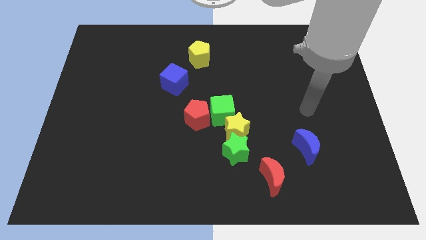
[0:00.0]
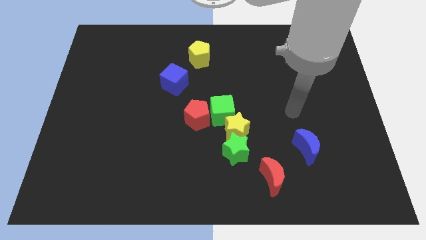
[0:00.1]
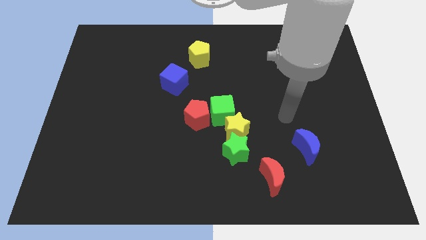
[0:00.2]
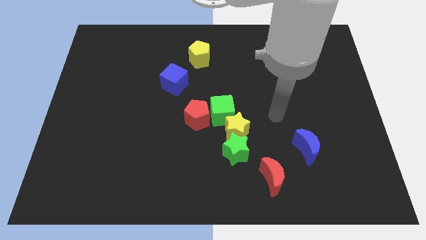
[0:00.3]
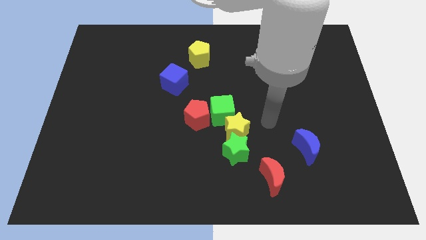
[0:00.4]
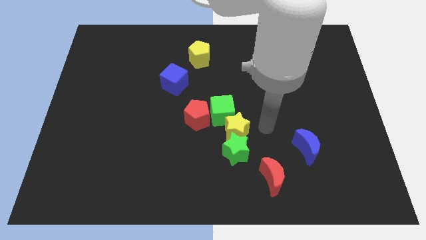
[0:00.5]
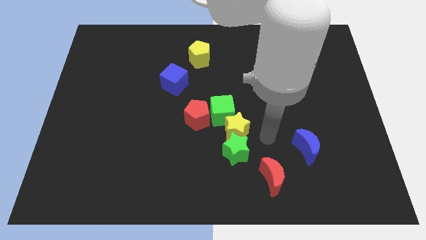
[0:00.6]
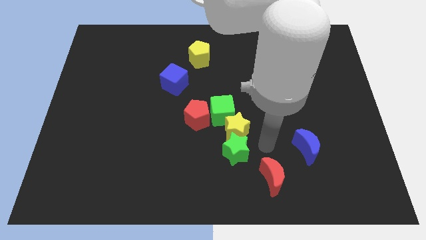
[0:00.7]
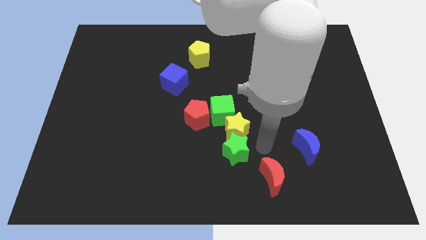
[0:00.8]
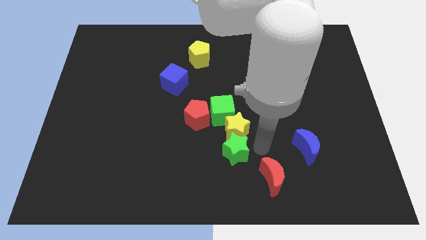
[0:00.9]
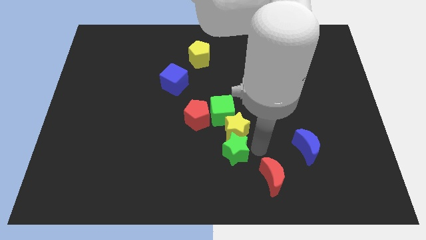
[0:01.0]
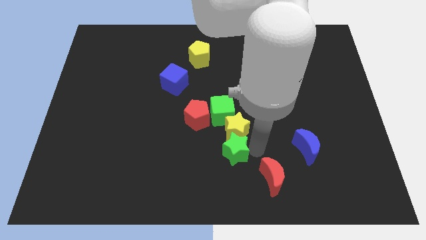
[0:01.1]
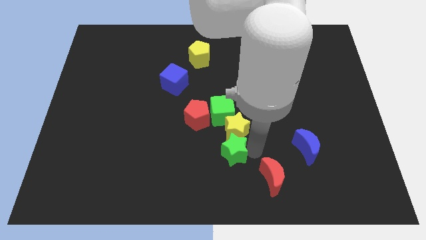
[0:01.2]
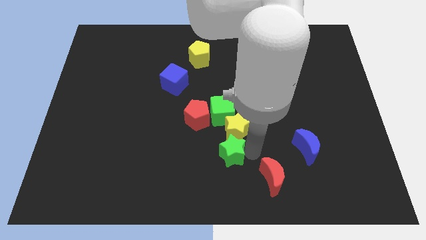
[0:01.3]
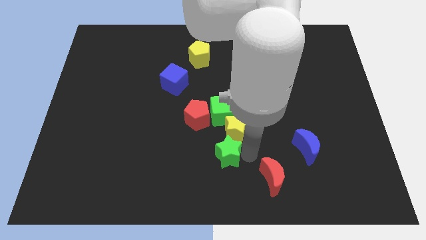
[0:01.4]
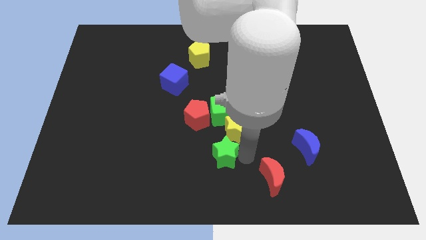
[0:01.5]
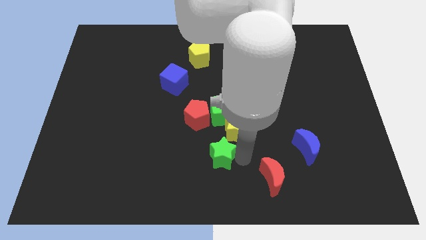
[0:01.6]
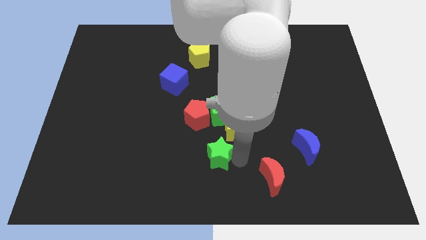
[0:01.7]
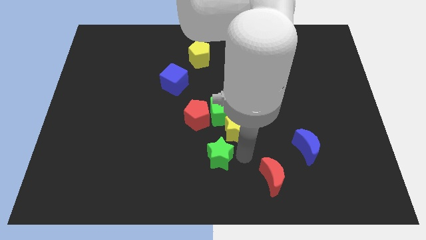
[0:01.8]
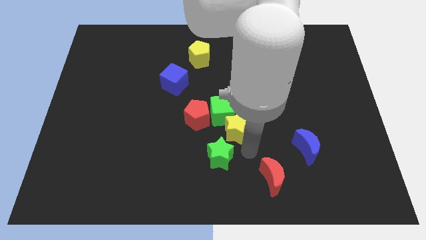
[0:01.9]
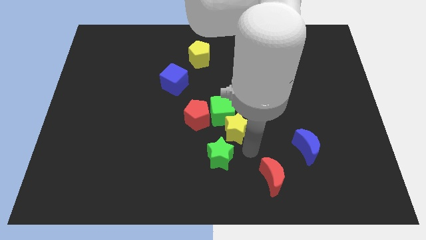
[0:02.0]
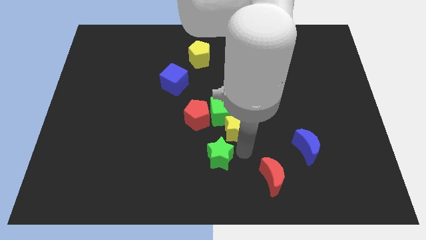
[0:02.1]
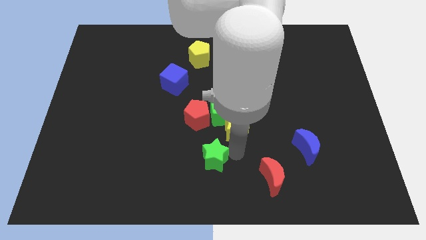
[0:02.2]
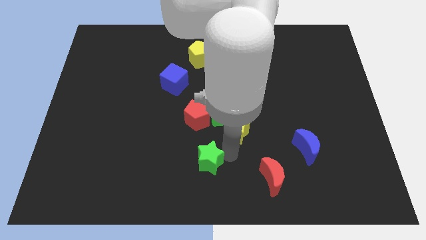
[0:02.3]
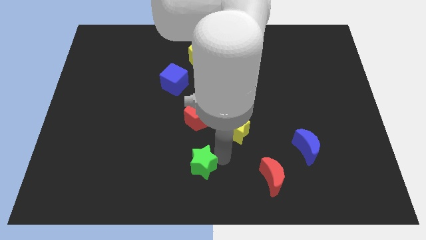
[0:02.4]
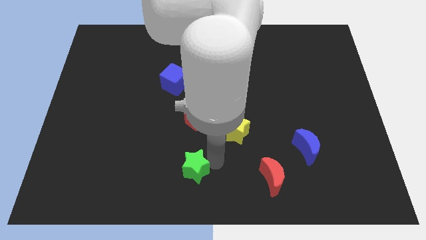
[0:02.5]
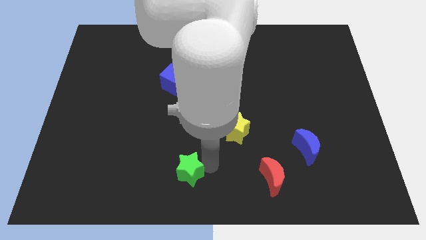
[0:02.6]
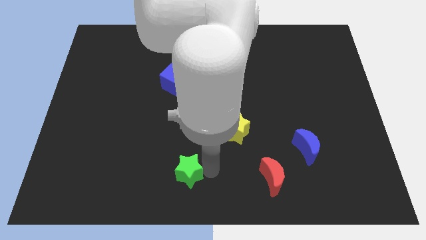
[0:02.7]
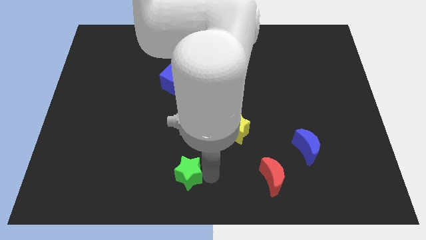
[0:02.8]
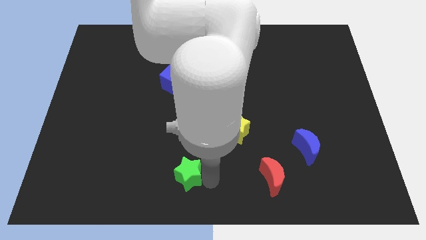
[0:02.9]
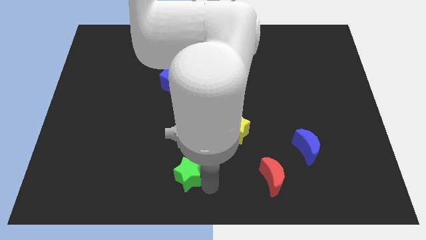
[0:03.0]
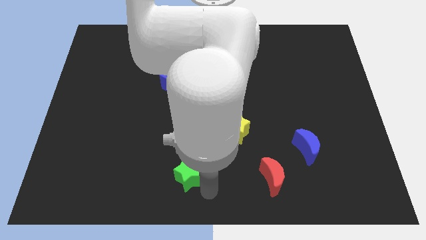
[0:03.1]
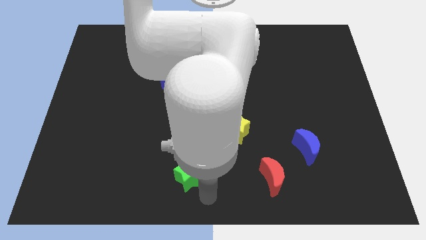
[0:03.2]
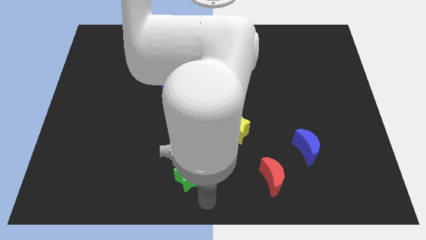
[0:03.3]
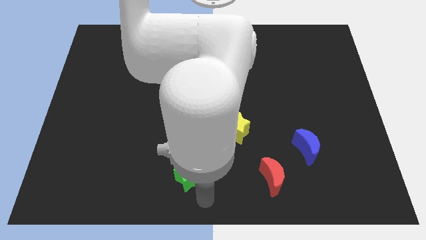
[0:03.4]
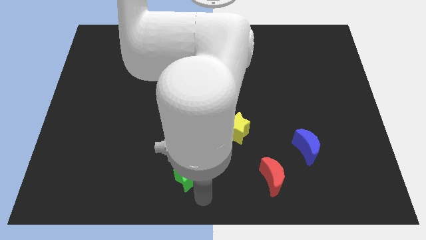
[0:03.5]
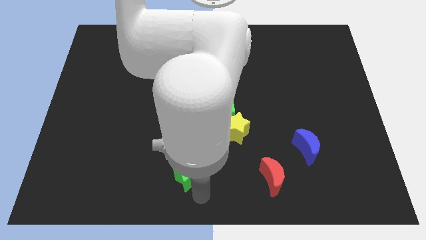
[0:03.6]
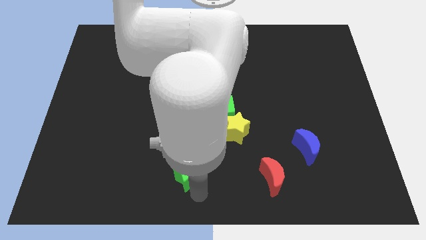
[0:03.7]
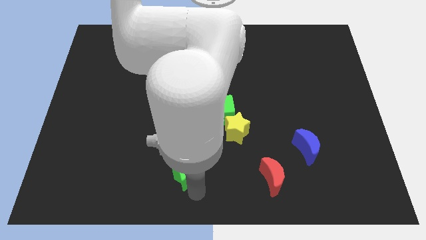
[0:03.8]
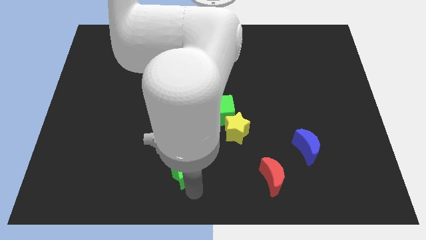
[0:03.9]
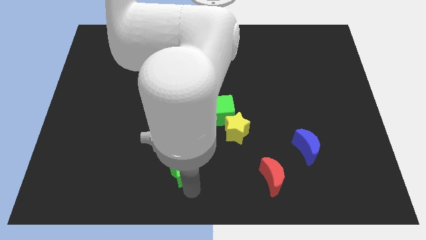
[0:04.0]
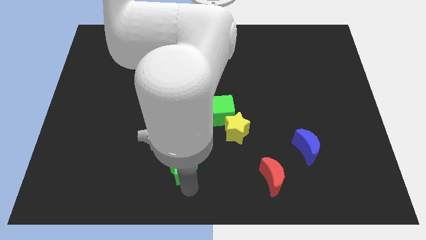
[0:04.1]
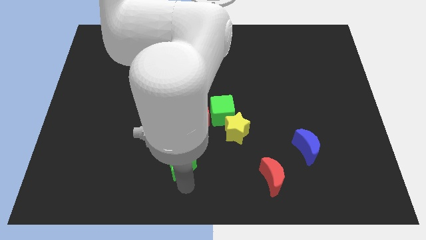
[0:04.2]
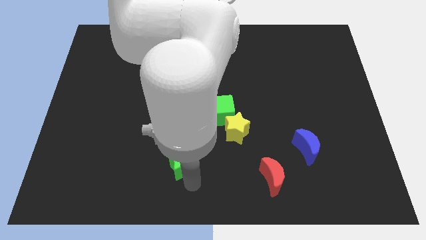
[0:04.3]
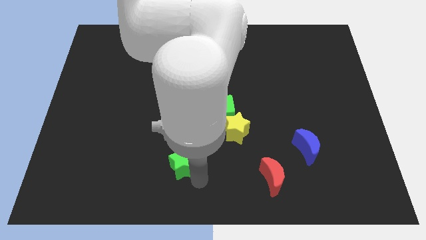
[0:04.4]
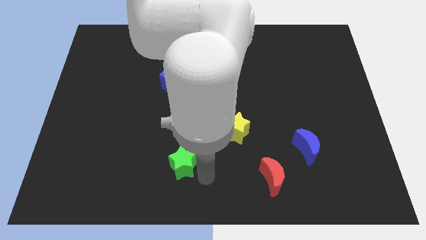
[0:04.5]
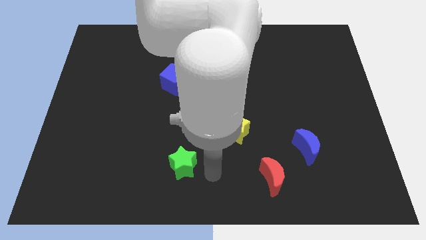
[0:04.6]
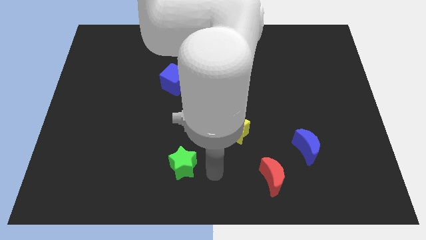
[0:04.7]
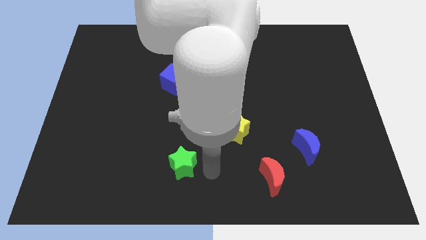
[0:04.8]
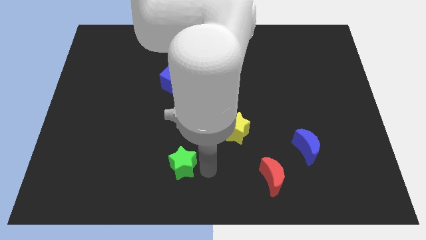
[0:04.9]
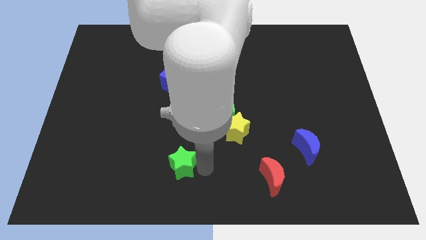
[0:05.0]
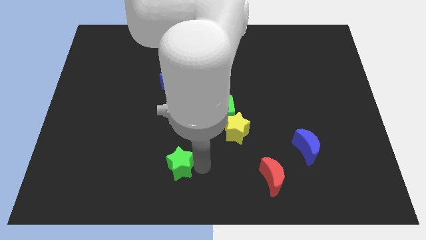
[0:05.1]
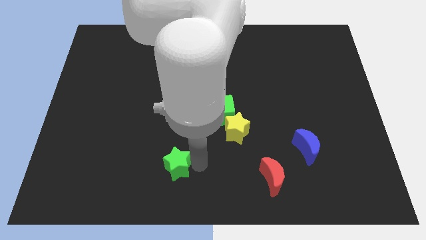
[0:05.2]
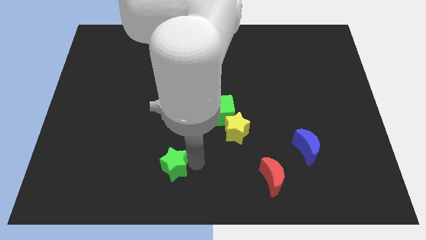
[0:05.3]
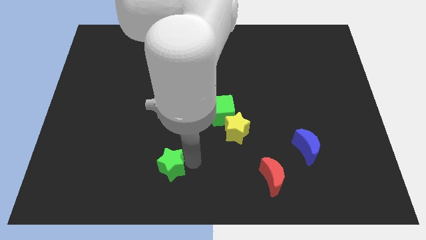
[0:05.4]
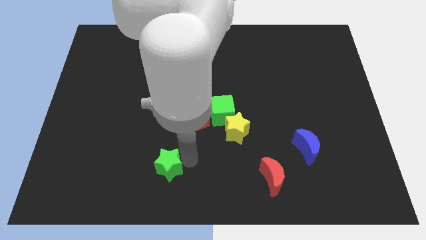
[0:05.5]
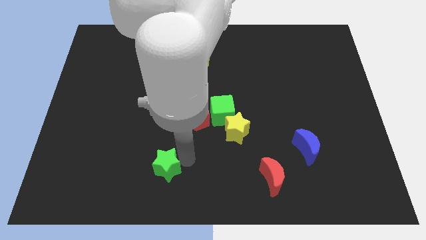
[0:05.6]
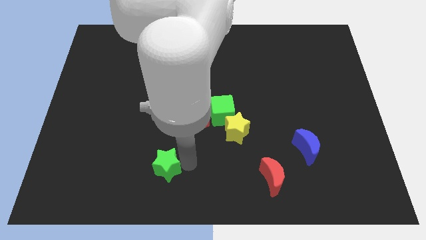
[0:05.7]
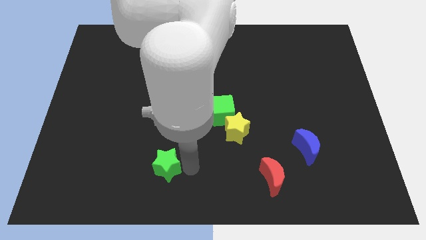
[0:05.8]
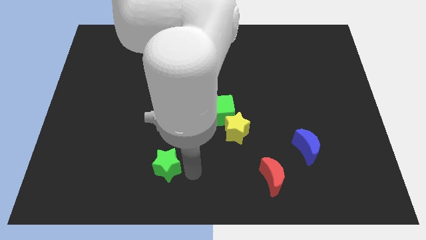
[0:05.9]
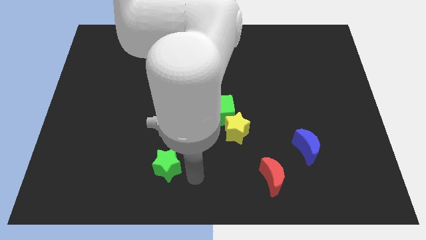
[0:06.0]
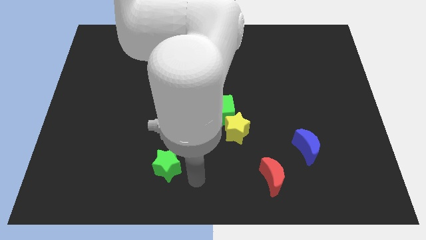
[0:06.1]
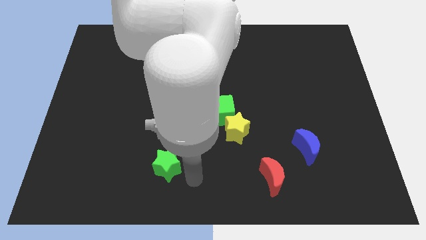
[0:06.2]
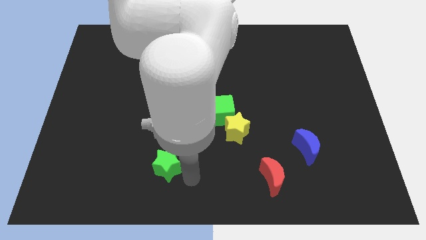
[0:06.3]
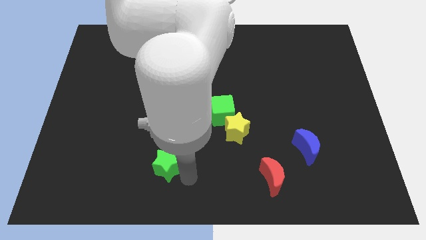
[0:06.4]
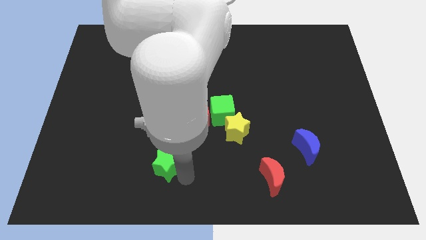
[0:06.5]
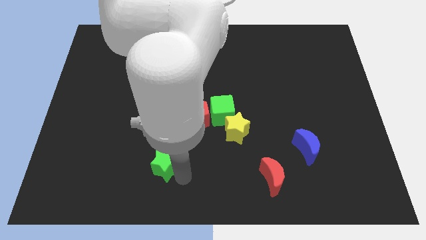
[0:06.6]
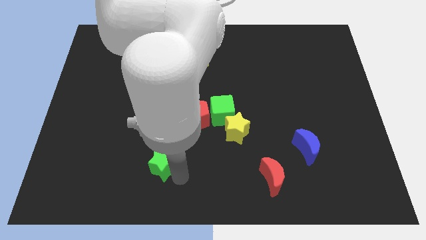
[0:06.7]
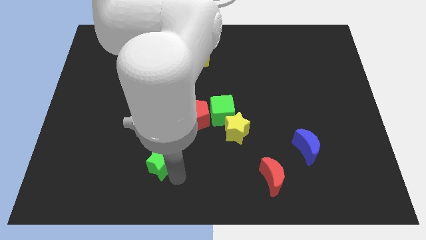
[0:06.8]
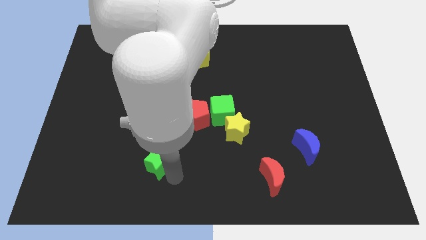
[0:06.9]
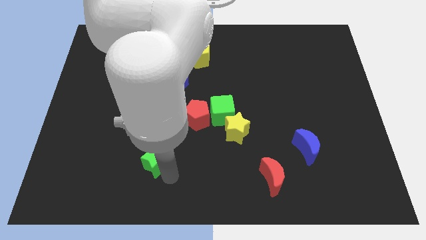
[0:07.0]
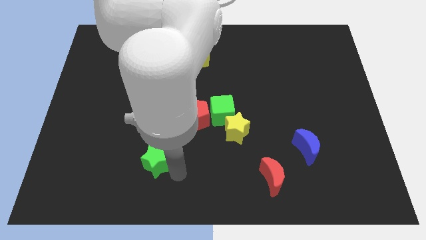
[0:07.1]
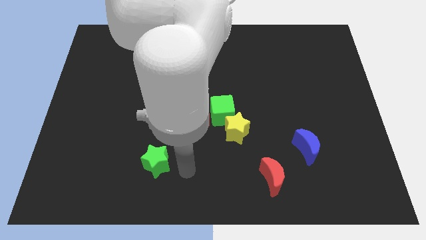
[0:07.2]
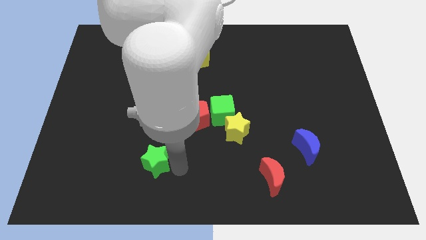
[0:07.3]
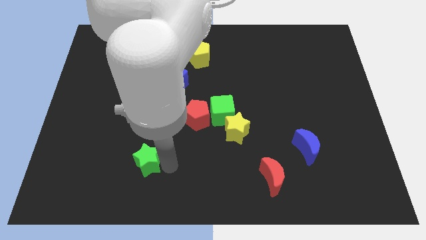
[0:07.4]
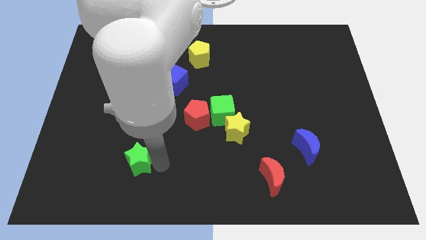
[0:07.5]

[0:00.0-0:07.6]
slide the green star to the left

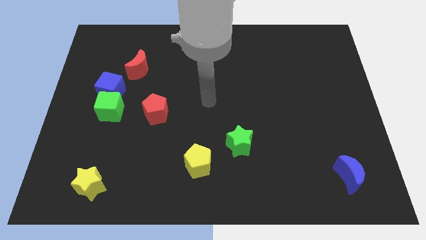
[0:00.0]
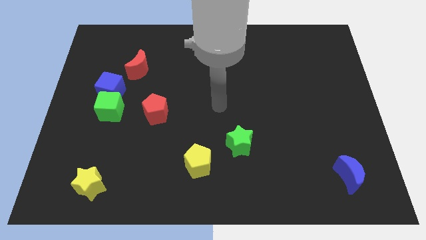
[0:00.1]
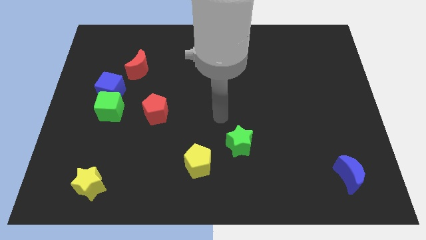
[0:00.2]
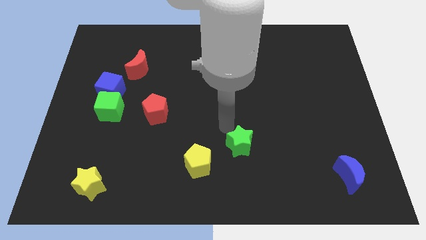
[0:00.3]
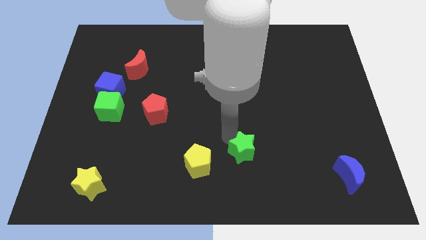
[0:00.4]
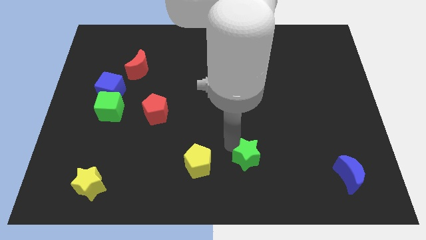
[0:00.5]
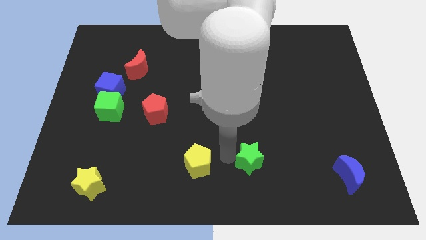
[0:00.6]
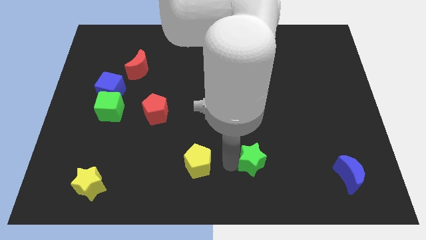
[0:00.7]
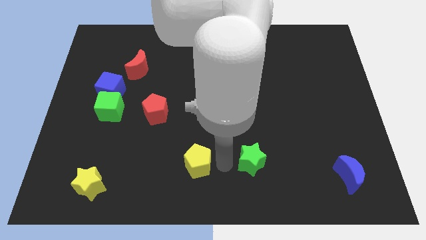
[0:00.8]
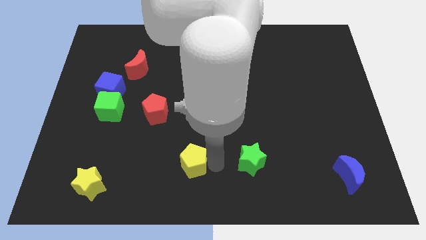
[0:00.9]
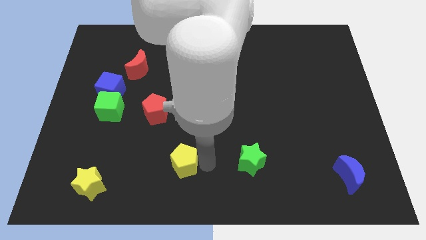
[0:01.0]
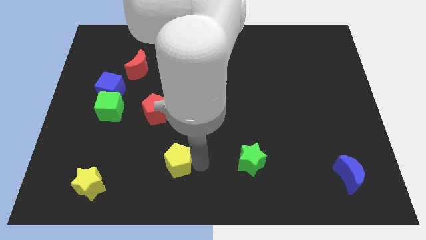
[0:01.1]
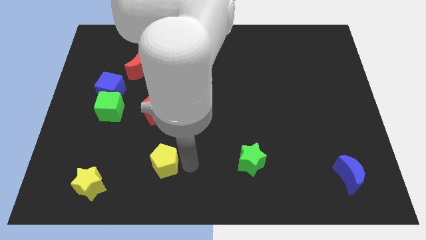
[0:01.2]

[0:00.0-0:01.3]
move the yellow pentagon a little bit to the left
